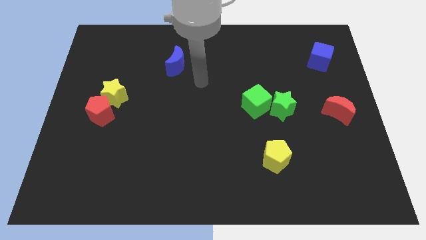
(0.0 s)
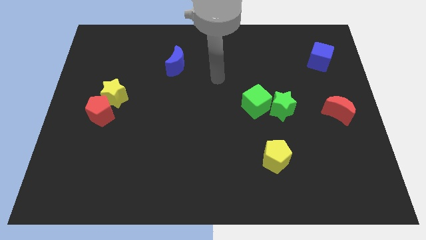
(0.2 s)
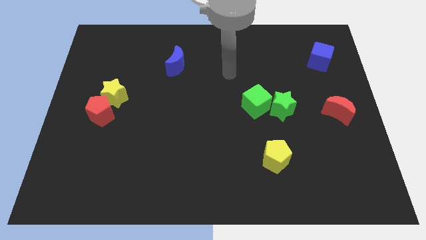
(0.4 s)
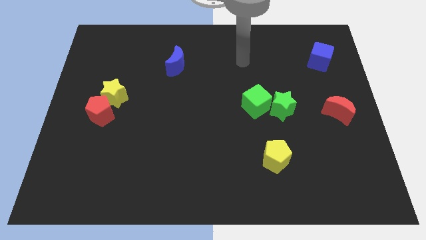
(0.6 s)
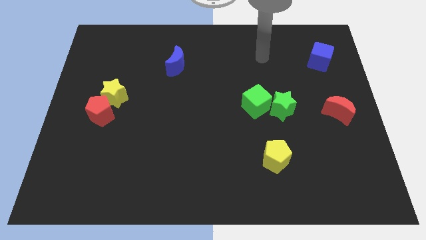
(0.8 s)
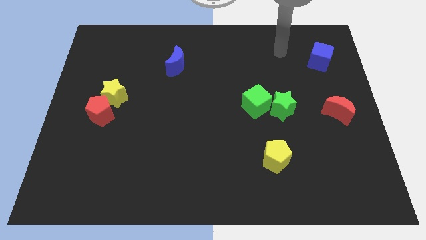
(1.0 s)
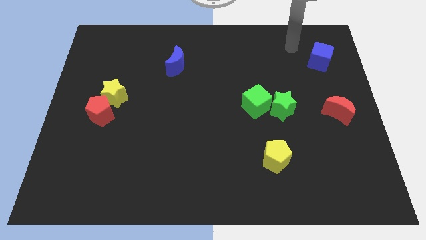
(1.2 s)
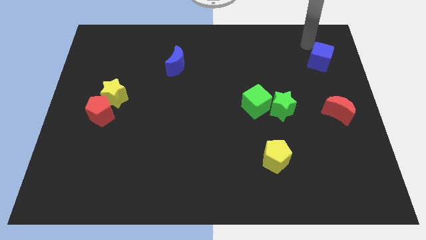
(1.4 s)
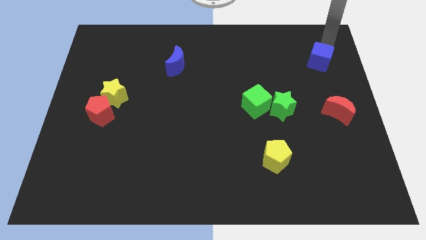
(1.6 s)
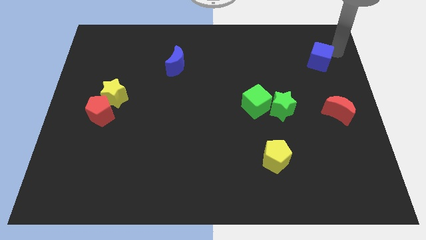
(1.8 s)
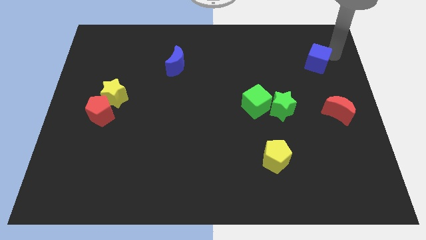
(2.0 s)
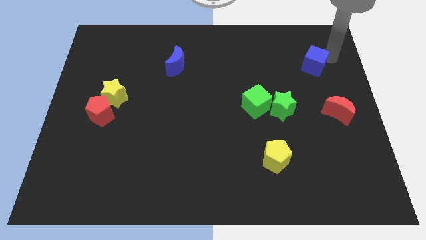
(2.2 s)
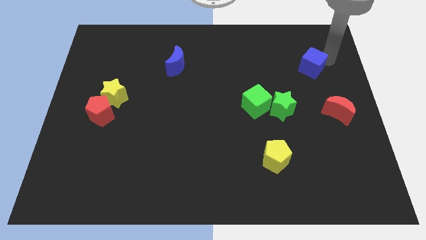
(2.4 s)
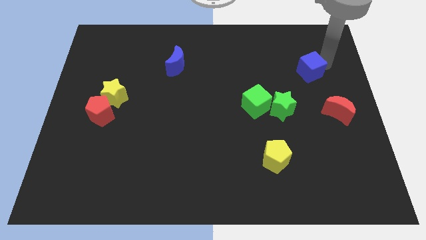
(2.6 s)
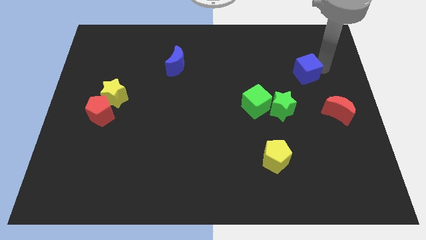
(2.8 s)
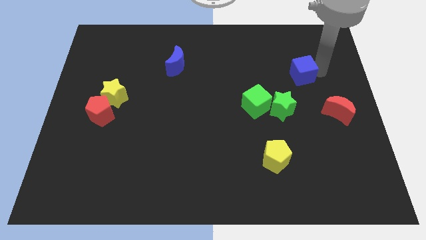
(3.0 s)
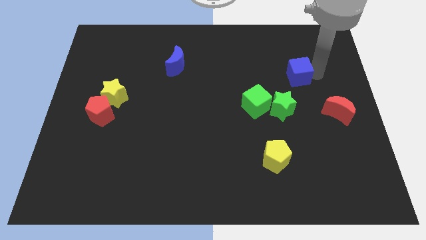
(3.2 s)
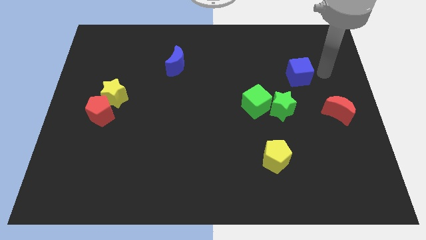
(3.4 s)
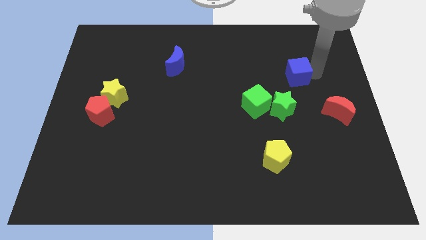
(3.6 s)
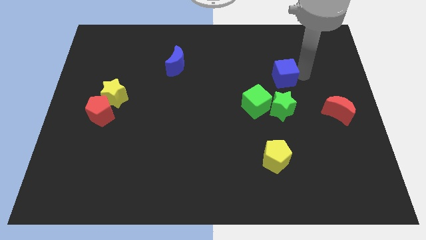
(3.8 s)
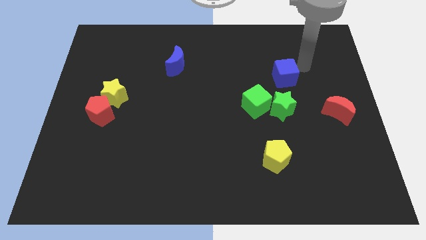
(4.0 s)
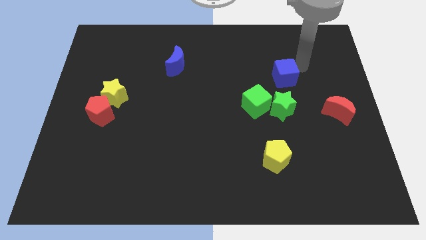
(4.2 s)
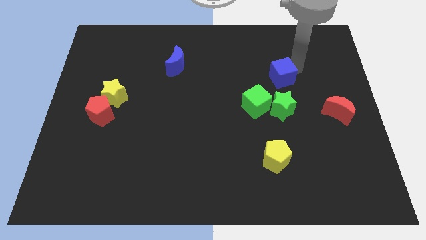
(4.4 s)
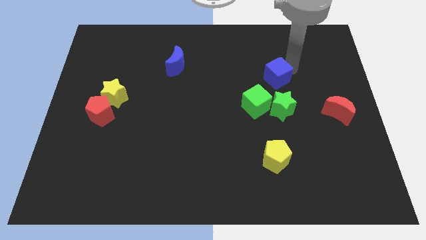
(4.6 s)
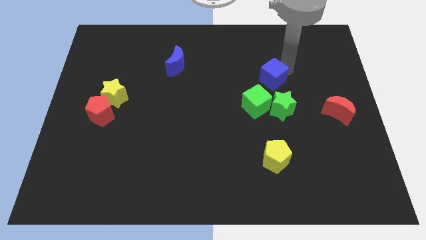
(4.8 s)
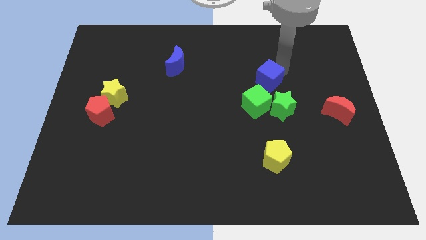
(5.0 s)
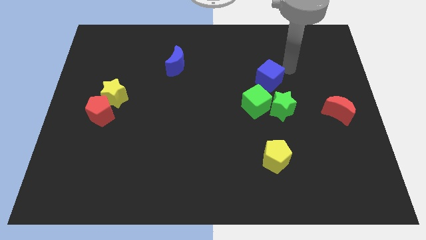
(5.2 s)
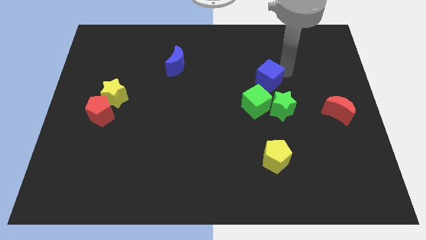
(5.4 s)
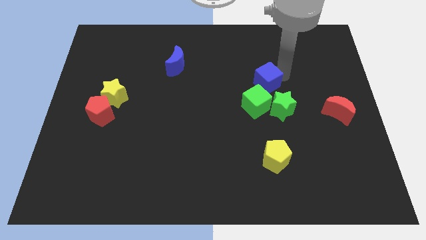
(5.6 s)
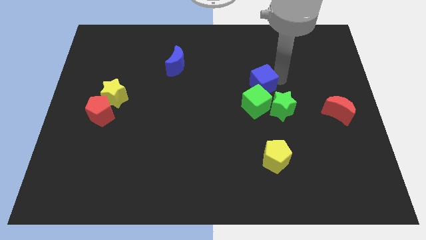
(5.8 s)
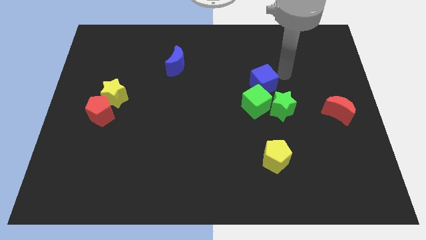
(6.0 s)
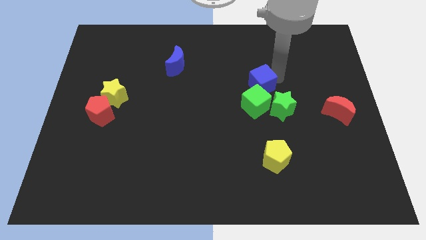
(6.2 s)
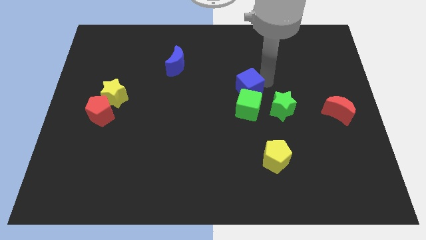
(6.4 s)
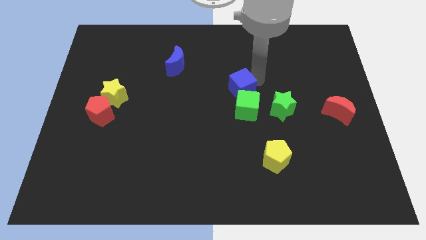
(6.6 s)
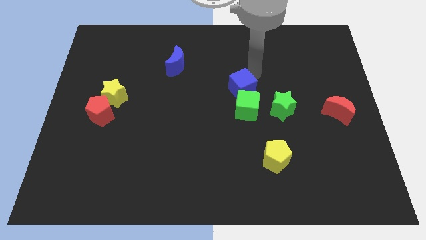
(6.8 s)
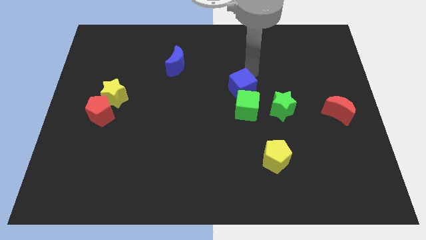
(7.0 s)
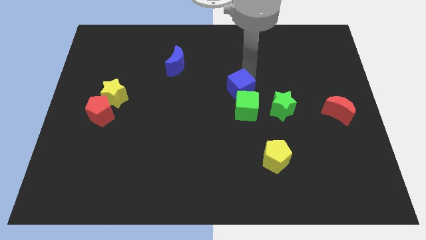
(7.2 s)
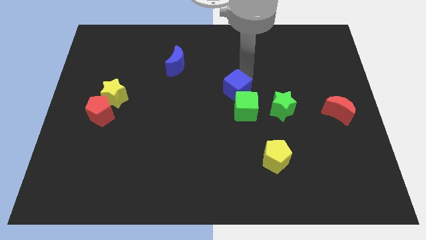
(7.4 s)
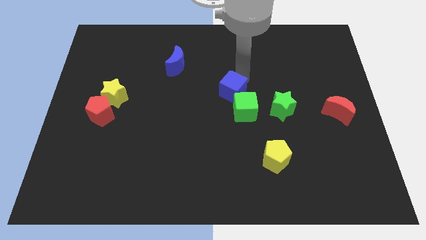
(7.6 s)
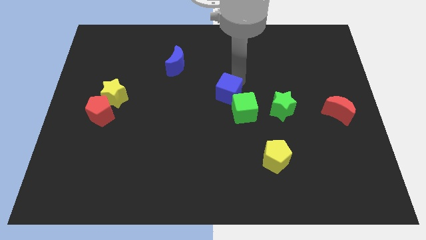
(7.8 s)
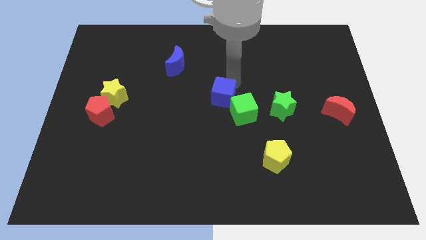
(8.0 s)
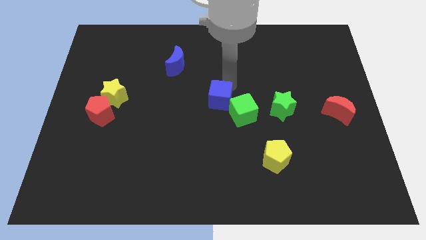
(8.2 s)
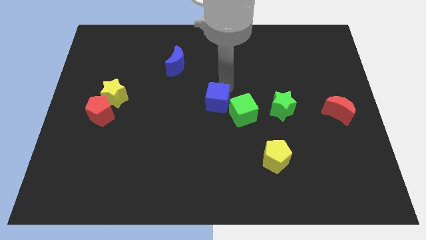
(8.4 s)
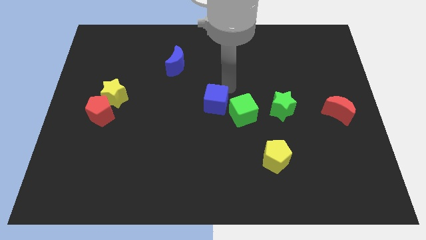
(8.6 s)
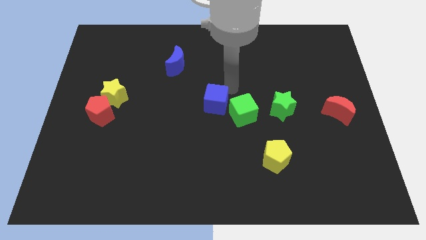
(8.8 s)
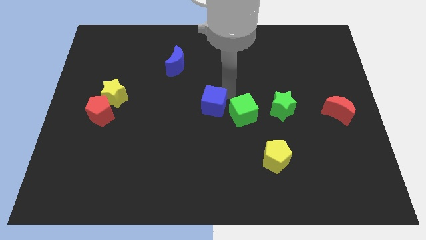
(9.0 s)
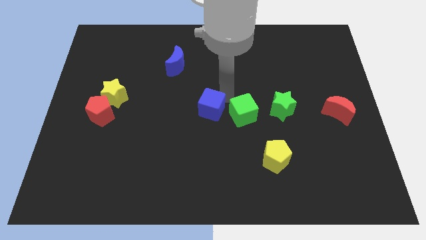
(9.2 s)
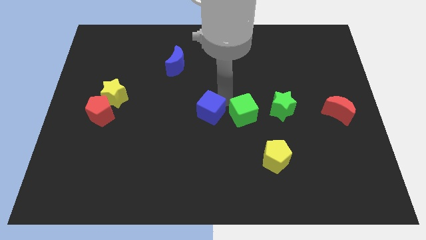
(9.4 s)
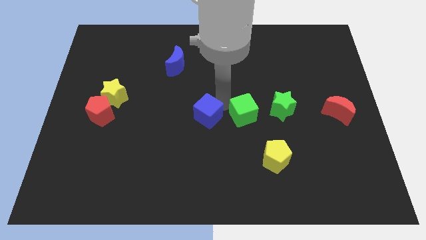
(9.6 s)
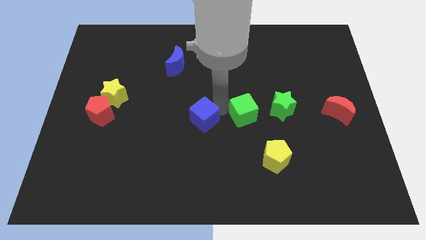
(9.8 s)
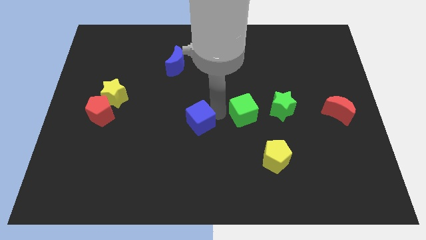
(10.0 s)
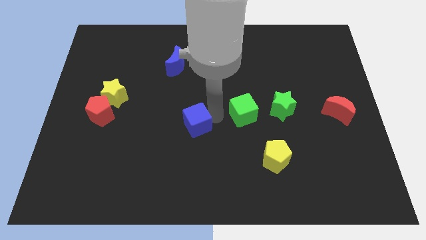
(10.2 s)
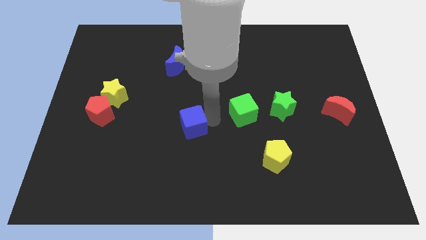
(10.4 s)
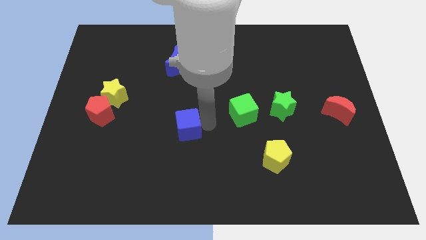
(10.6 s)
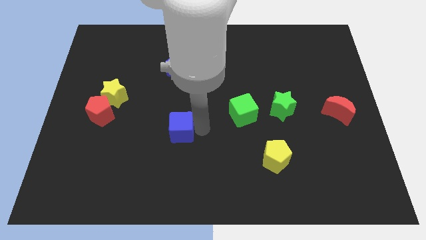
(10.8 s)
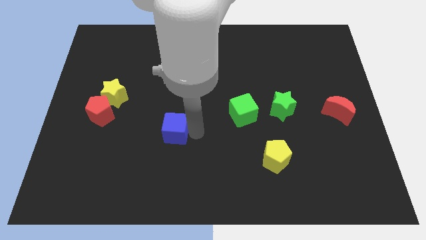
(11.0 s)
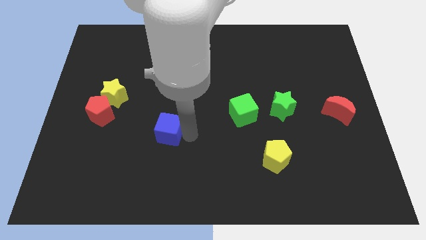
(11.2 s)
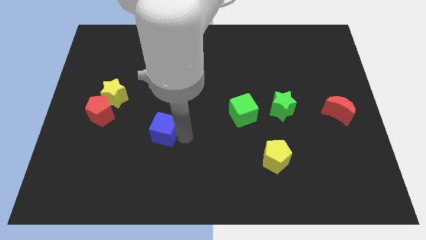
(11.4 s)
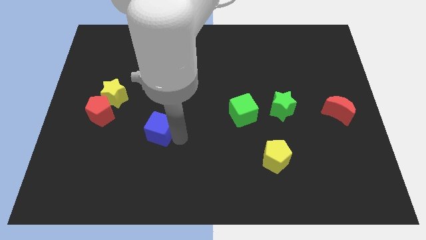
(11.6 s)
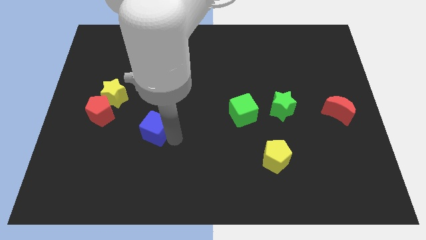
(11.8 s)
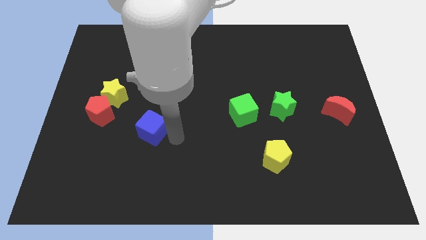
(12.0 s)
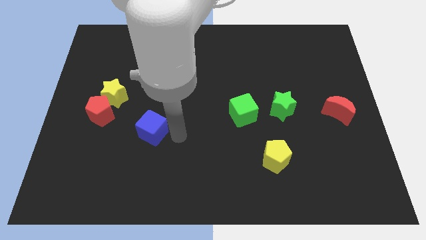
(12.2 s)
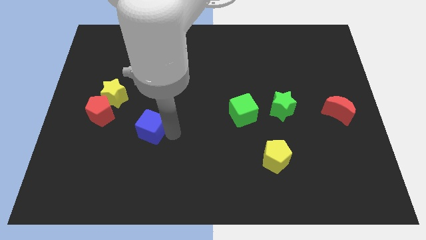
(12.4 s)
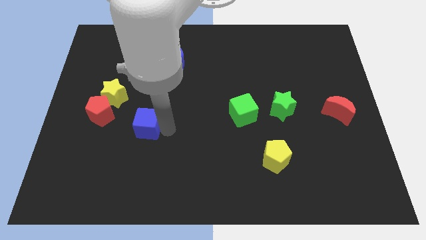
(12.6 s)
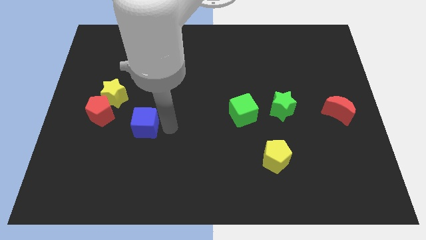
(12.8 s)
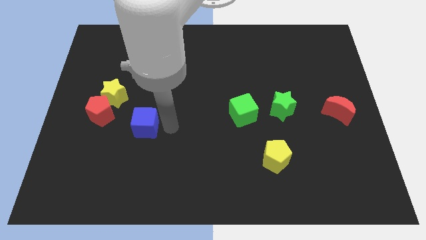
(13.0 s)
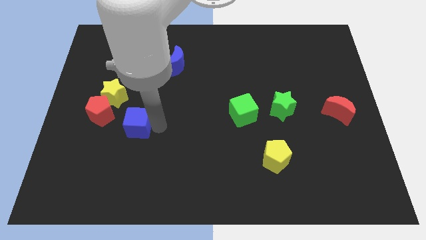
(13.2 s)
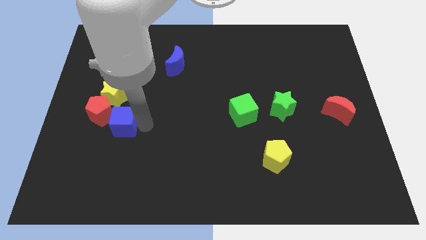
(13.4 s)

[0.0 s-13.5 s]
push the blue cube to the bottom of the yellow star

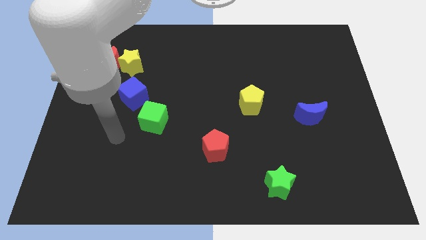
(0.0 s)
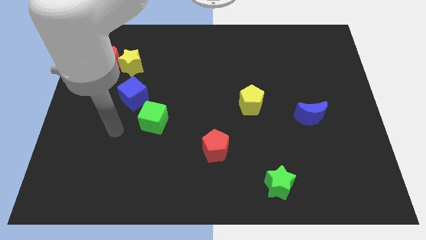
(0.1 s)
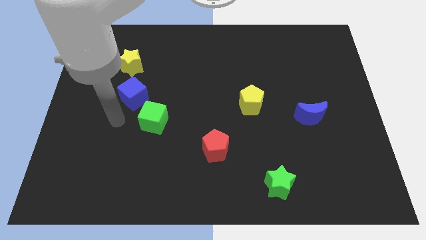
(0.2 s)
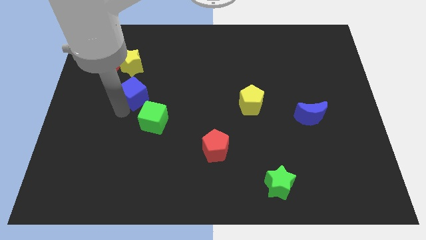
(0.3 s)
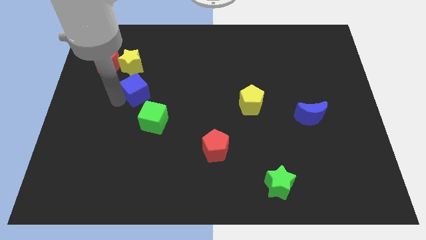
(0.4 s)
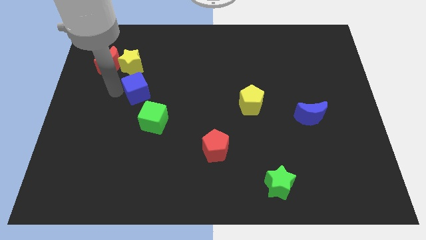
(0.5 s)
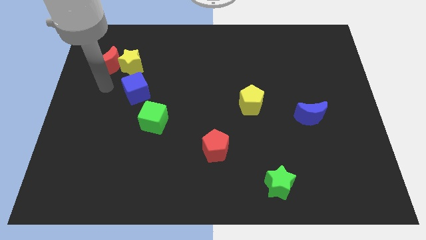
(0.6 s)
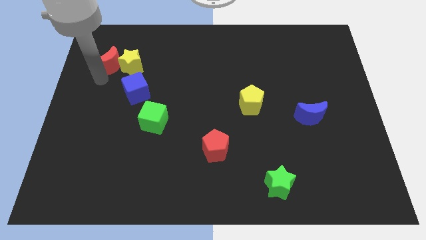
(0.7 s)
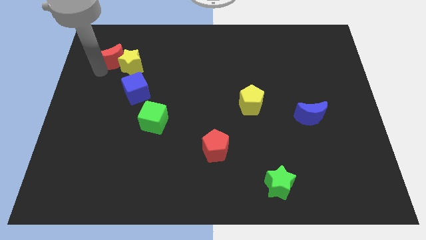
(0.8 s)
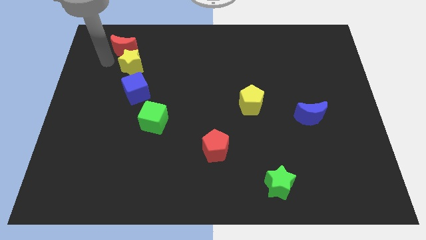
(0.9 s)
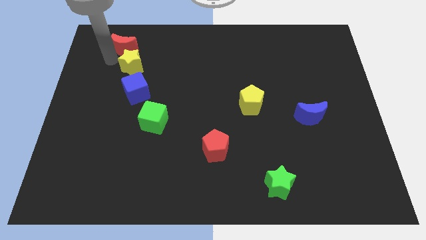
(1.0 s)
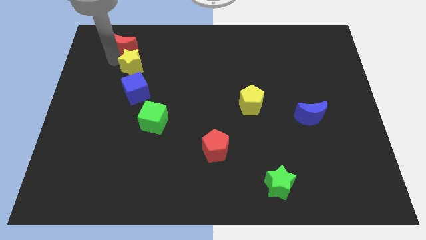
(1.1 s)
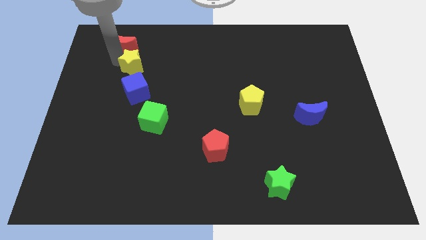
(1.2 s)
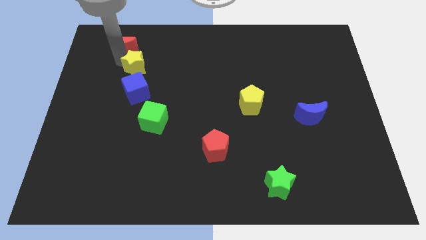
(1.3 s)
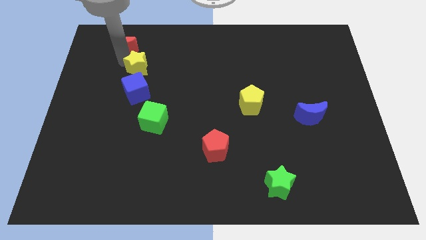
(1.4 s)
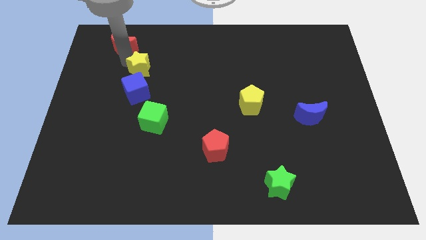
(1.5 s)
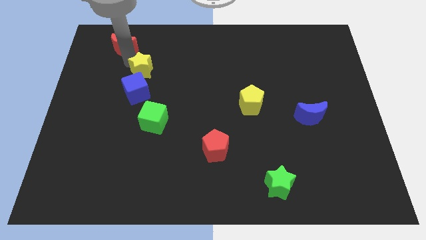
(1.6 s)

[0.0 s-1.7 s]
move the yellow star diagonally up and to the right of the blue cube
